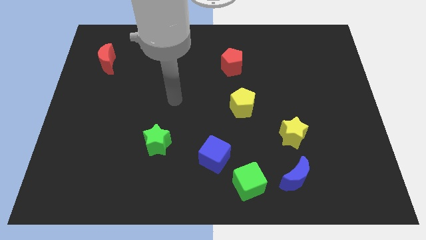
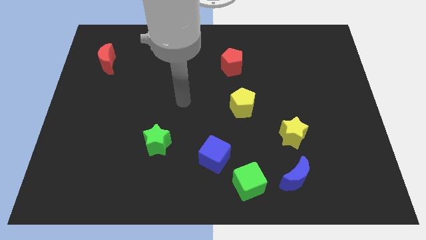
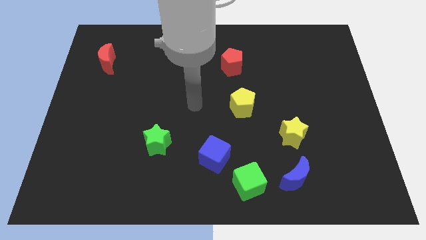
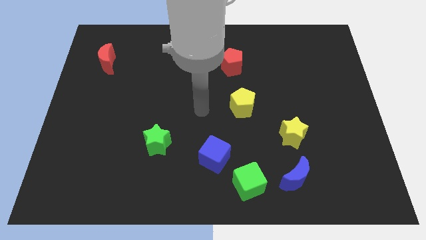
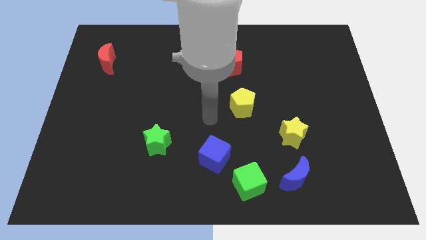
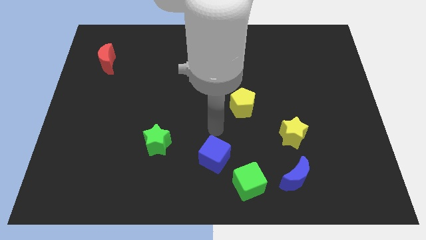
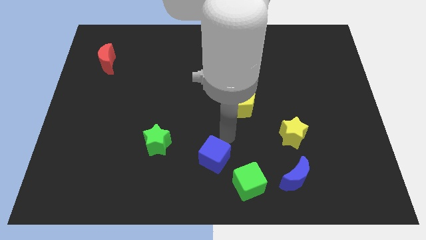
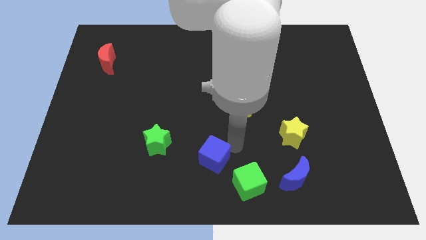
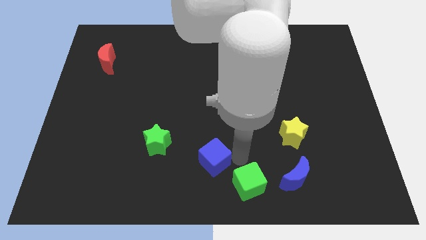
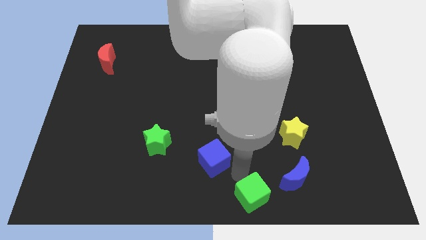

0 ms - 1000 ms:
separate the blue cube from the green cube

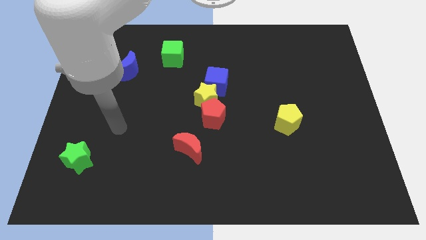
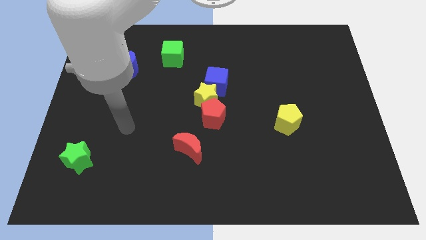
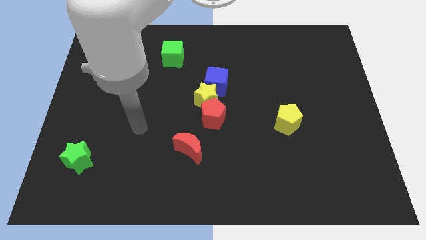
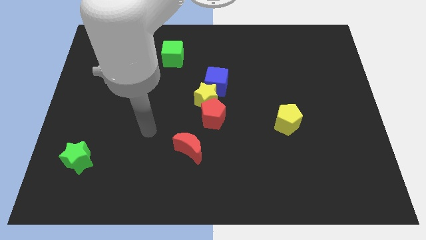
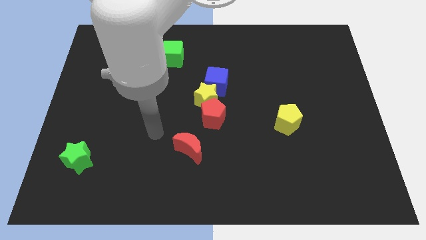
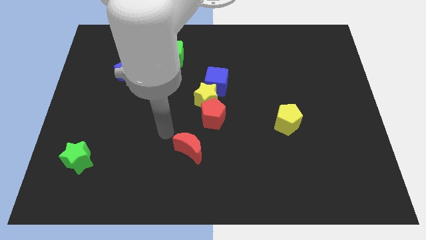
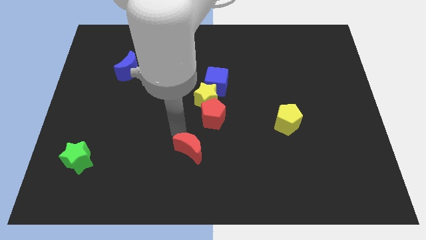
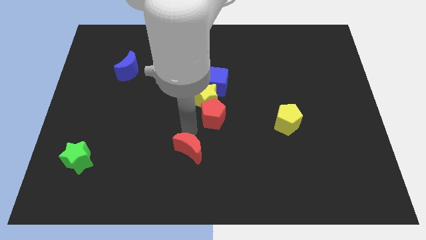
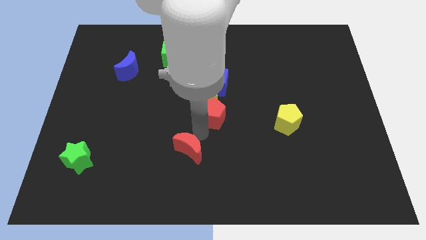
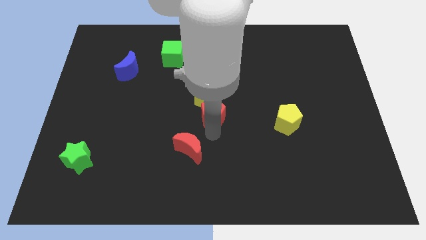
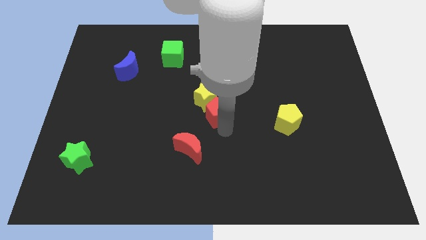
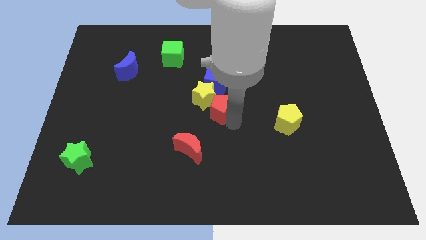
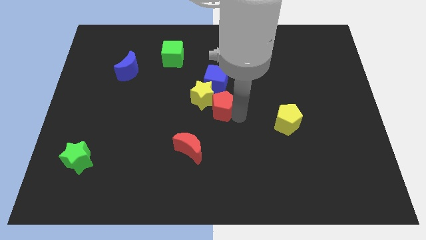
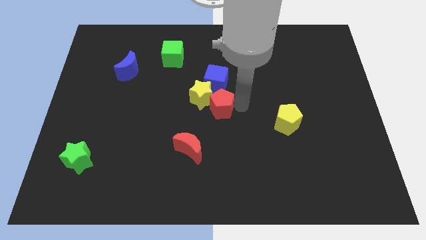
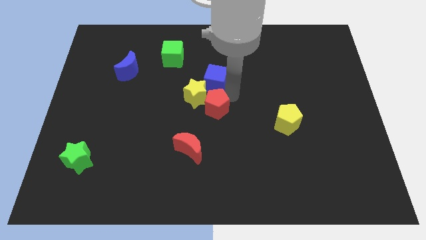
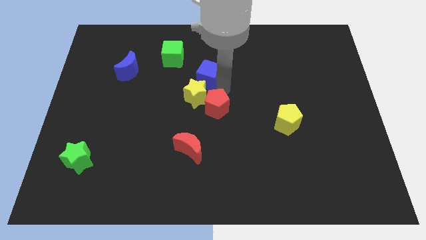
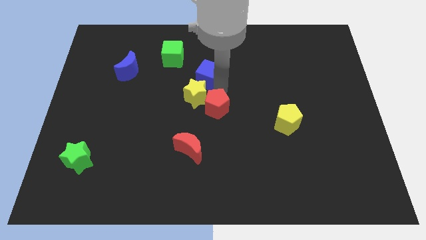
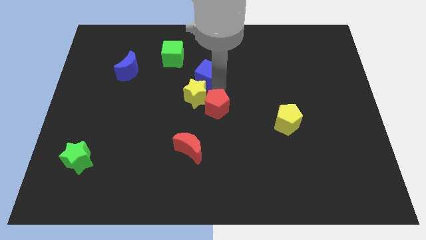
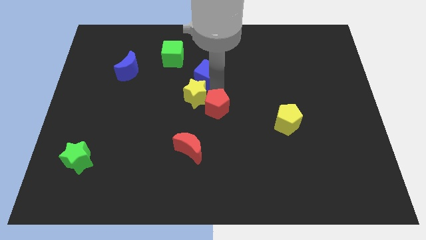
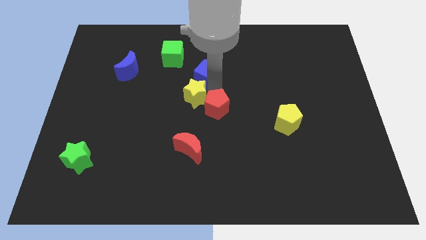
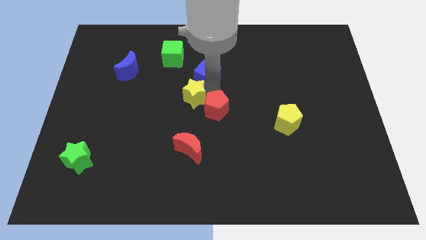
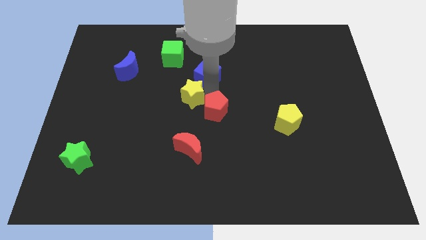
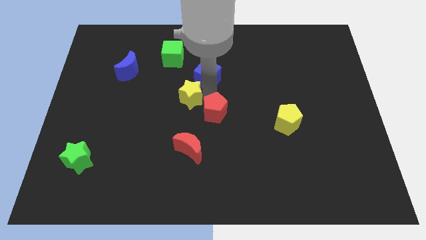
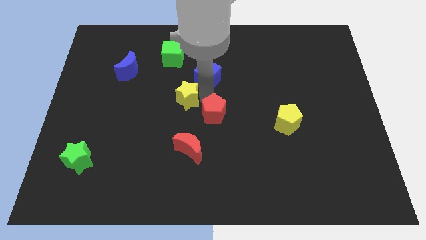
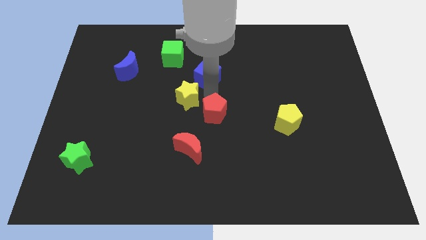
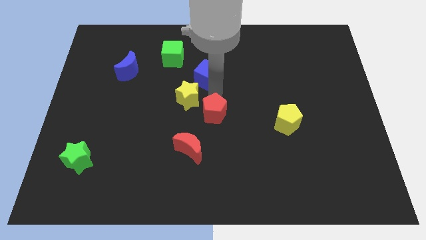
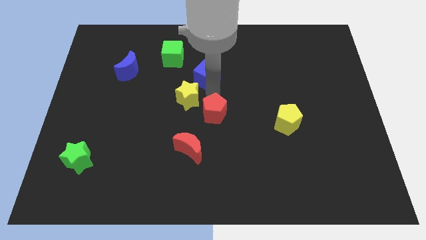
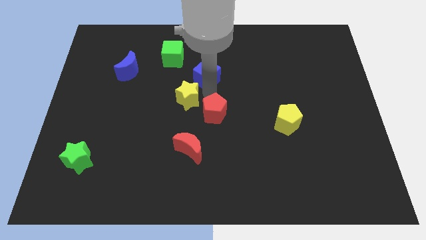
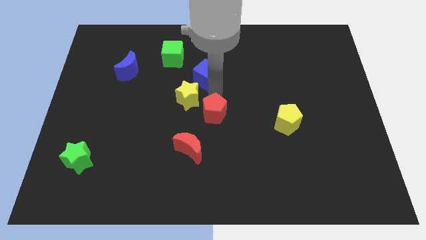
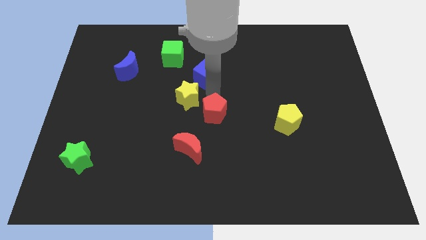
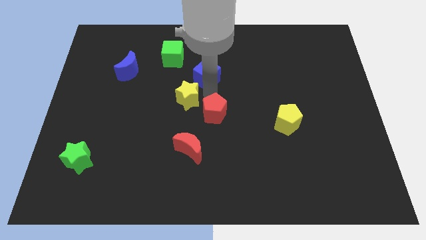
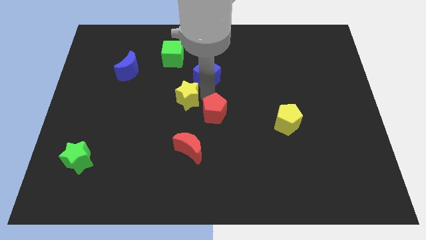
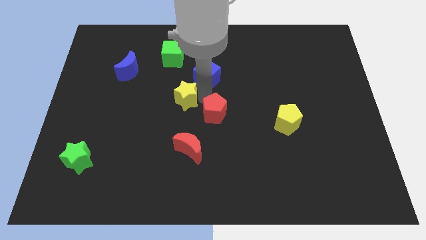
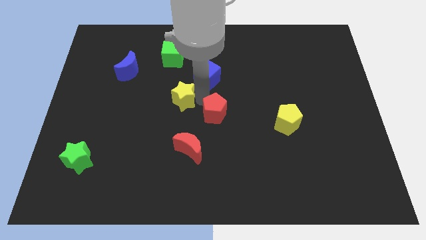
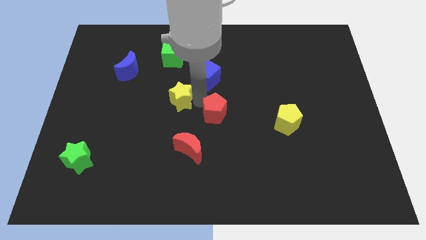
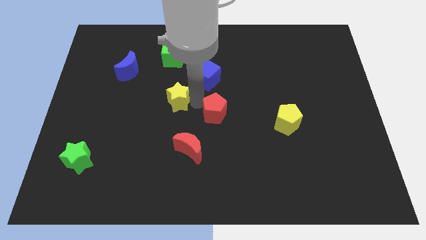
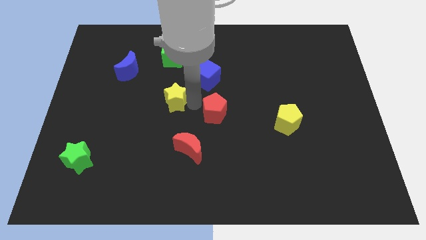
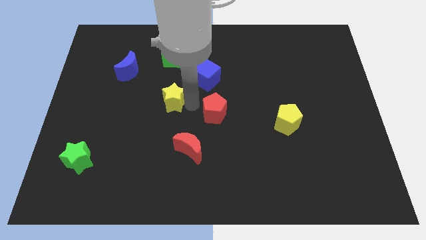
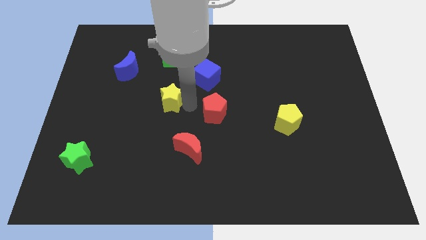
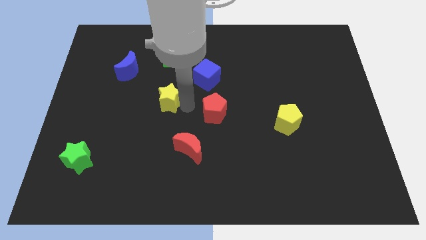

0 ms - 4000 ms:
separate the yellow star from the red pentagon and blue cube

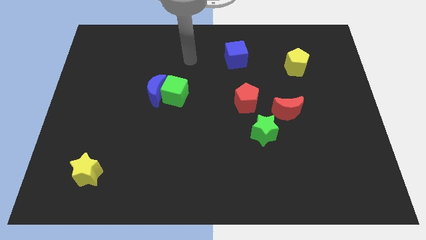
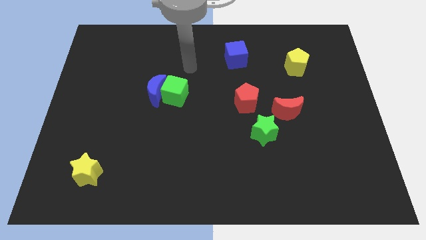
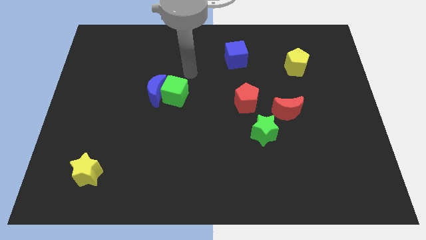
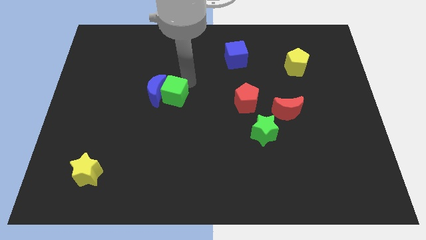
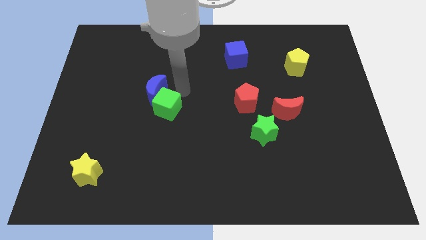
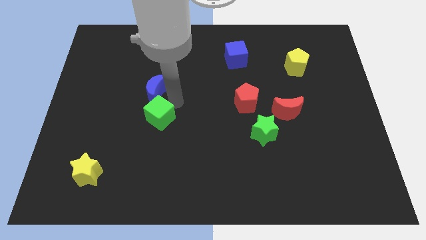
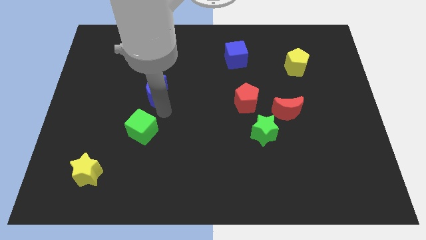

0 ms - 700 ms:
move the blue moon away from the green cube

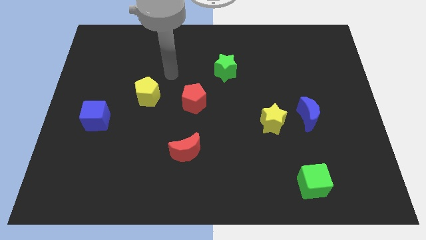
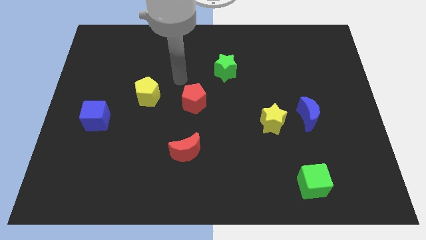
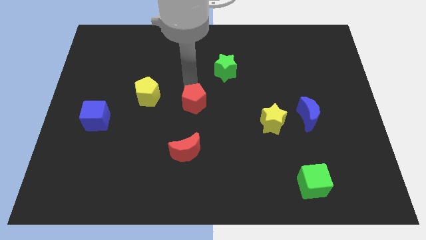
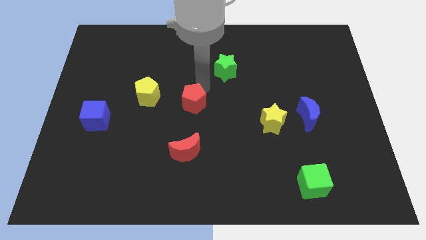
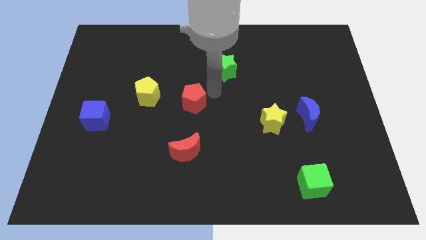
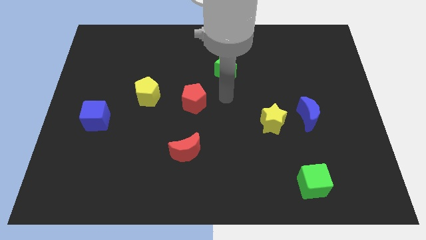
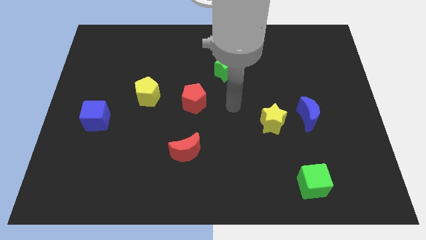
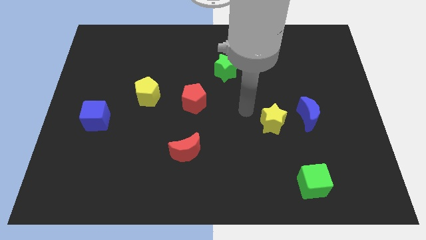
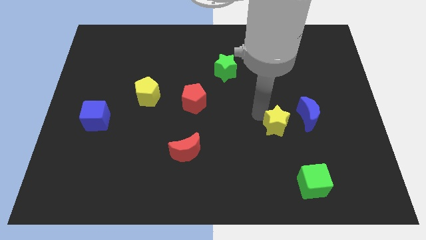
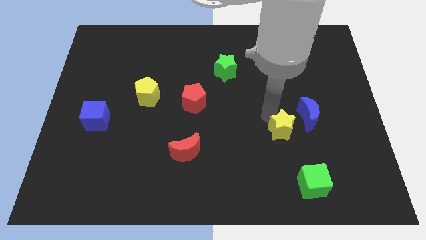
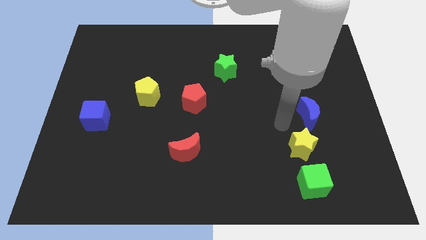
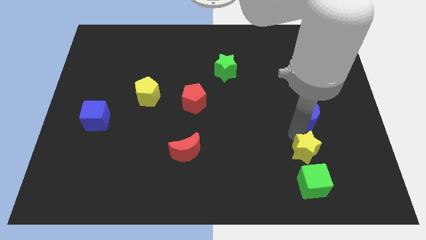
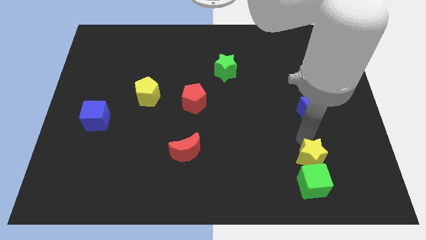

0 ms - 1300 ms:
move the blue moon away from the yellow star

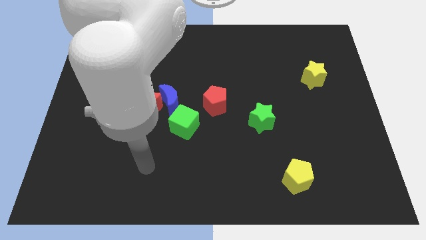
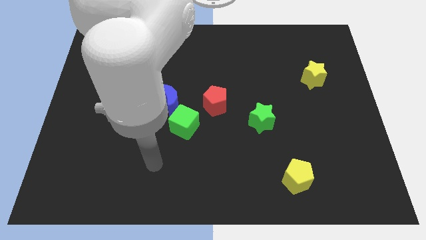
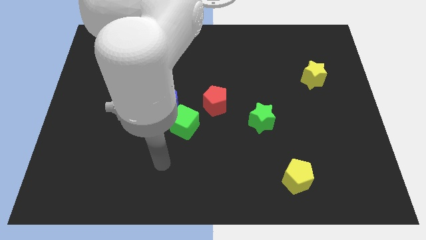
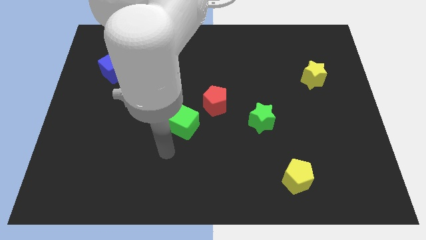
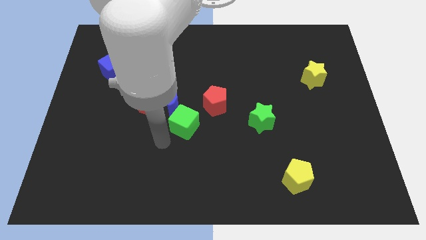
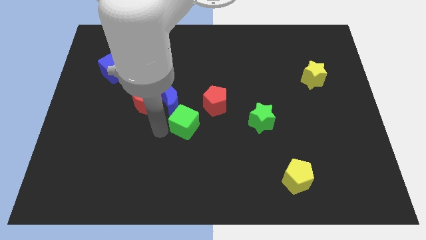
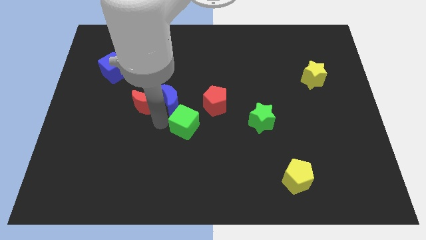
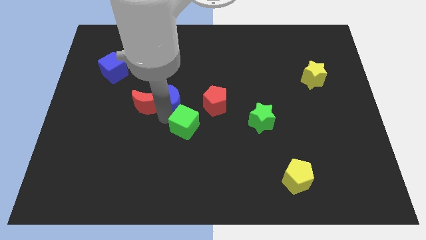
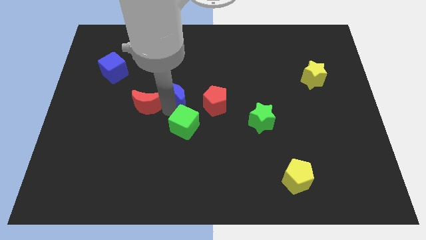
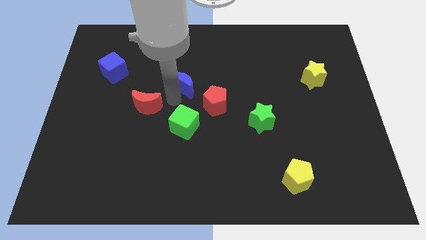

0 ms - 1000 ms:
move the red moon away from the blue moon

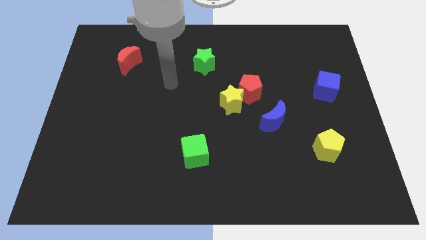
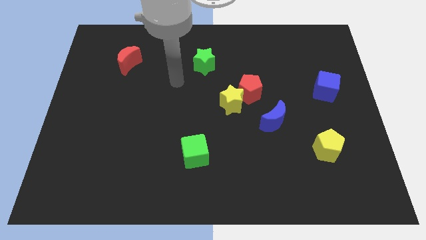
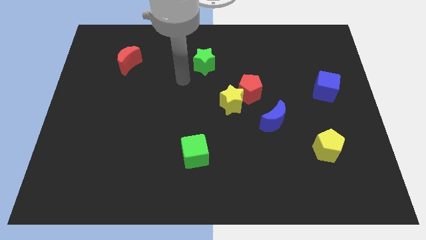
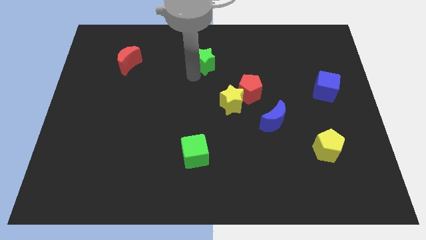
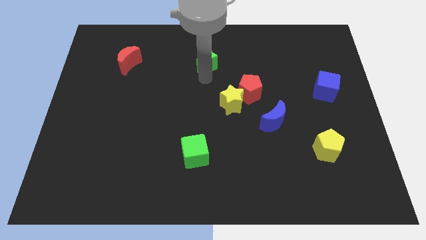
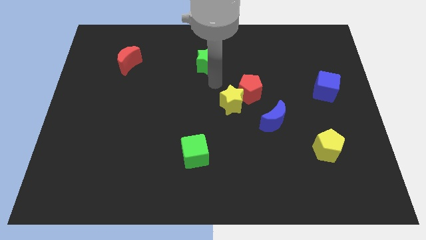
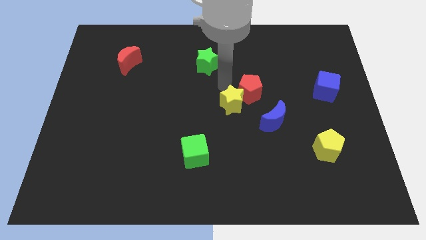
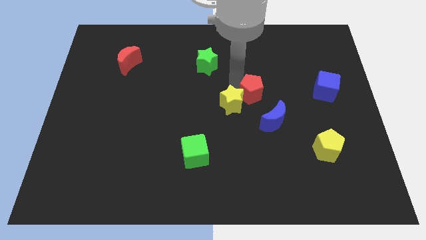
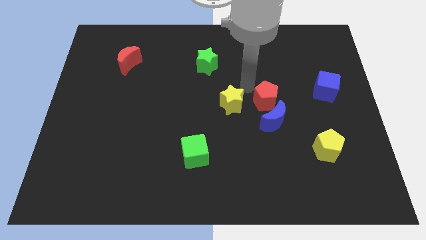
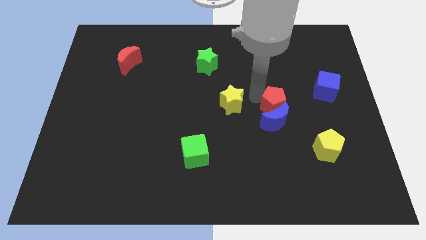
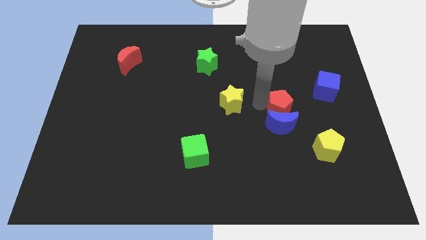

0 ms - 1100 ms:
move the yellow star away from the red pentagon

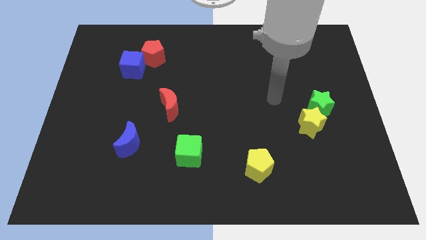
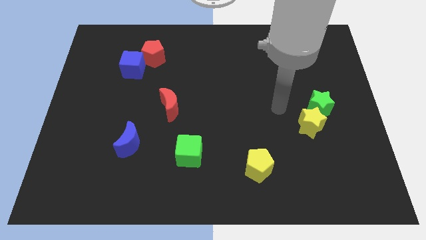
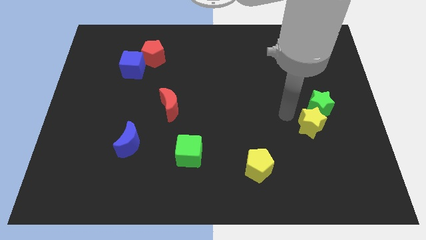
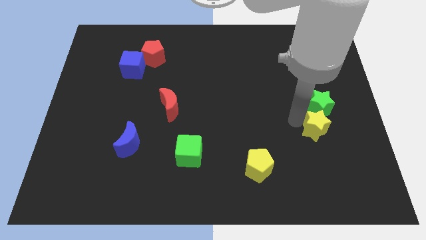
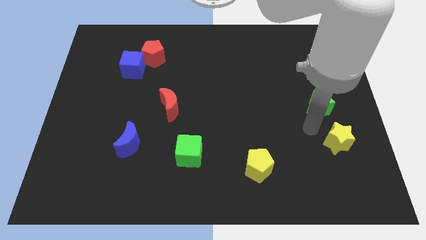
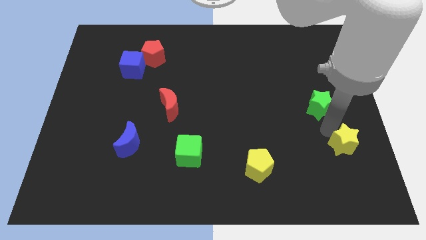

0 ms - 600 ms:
move the green star away from the yellow star
